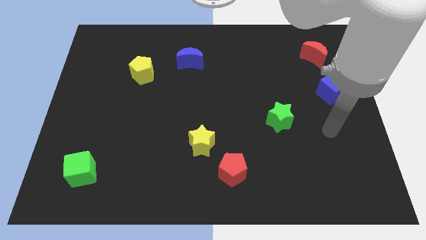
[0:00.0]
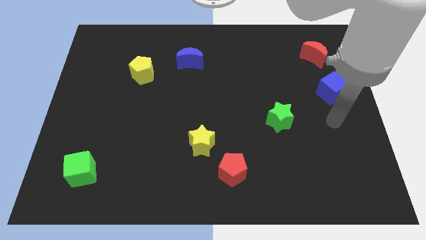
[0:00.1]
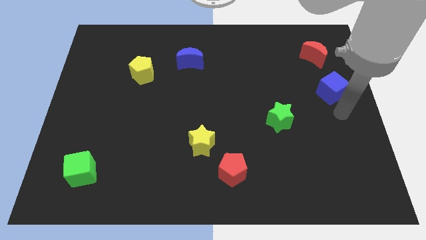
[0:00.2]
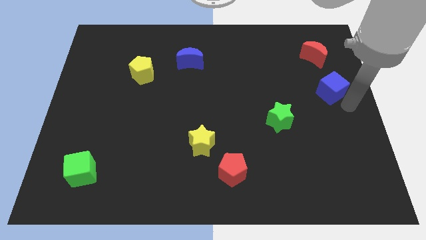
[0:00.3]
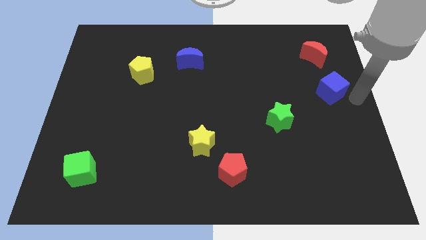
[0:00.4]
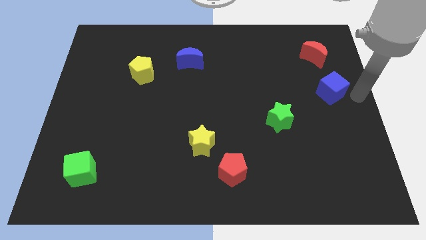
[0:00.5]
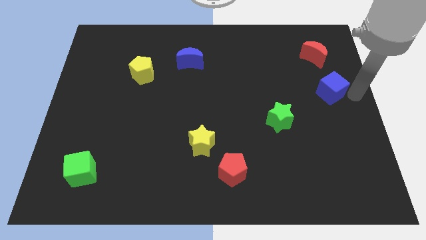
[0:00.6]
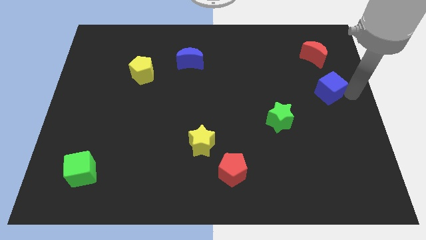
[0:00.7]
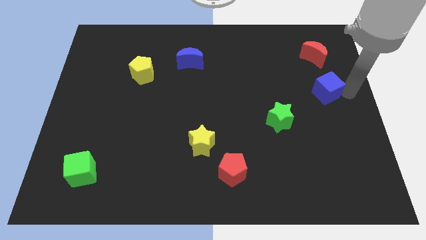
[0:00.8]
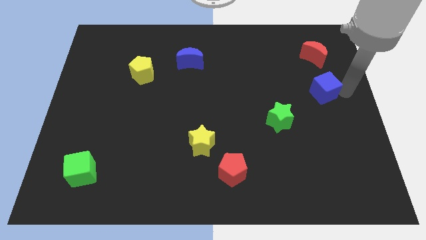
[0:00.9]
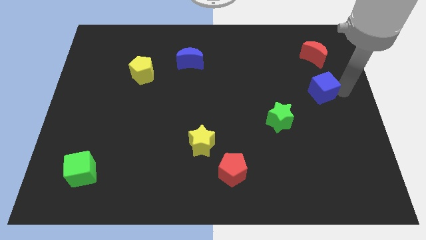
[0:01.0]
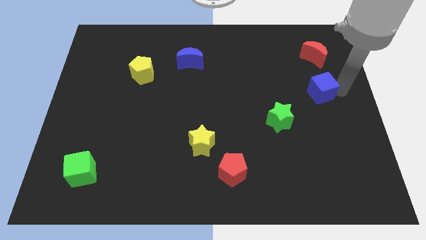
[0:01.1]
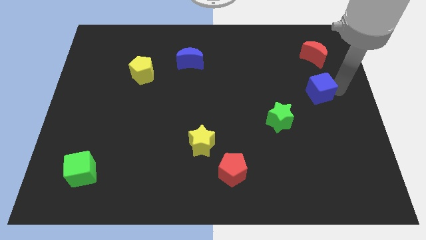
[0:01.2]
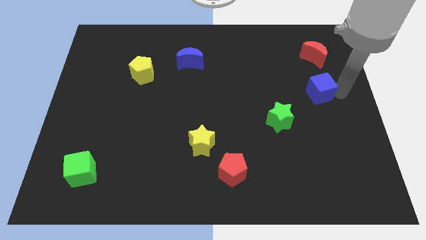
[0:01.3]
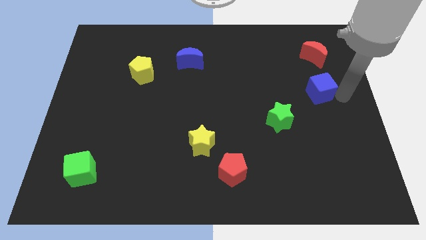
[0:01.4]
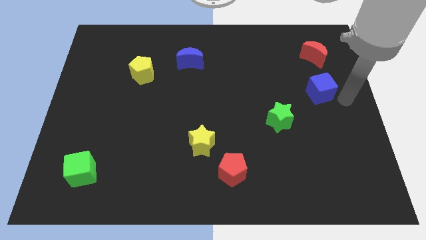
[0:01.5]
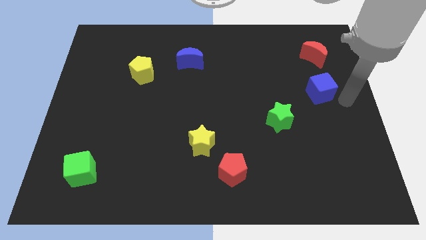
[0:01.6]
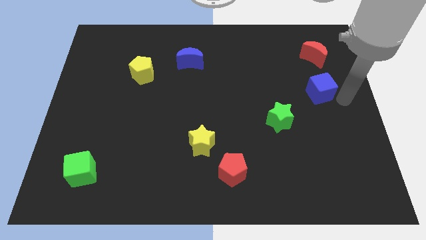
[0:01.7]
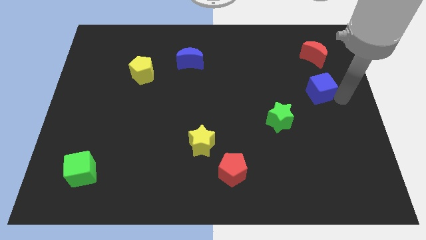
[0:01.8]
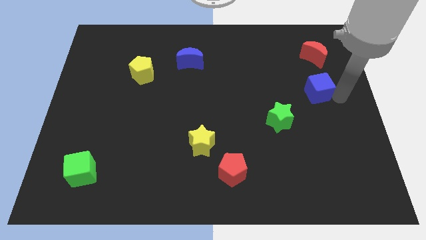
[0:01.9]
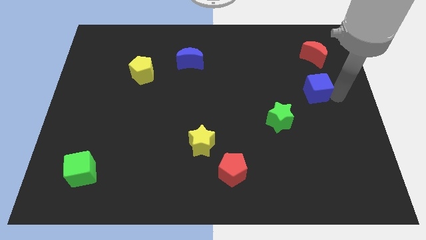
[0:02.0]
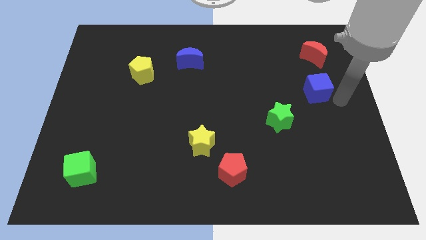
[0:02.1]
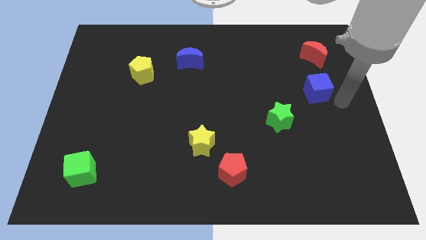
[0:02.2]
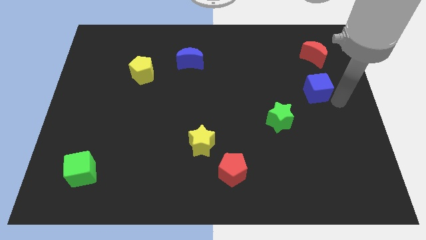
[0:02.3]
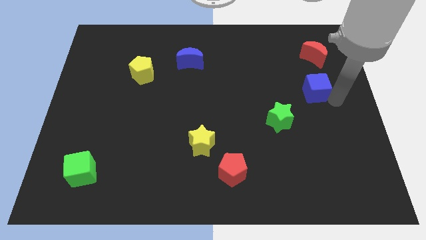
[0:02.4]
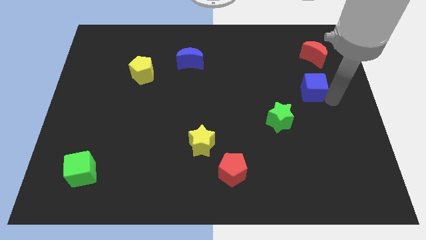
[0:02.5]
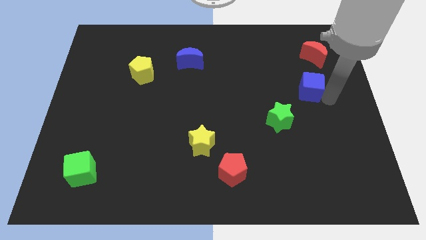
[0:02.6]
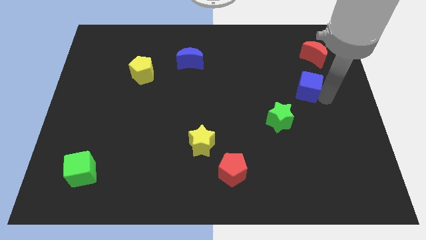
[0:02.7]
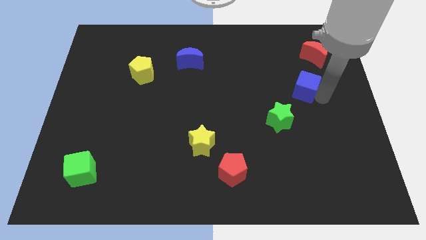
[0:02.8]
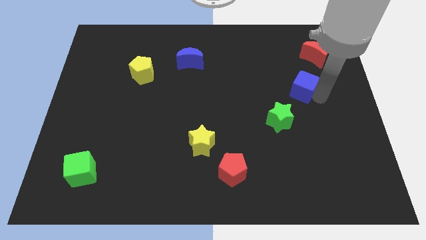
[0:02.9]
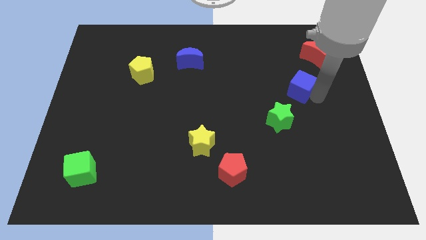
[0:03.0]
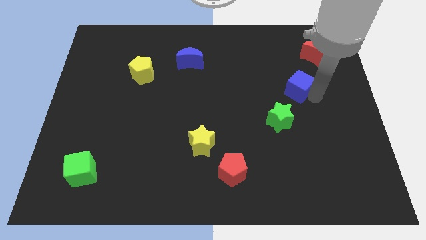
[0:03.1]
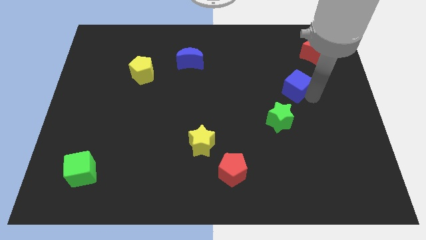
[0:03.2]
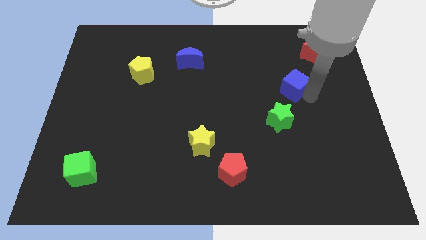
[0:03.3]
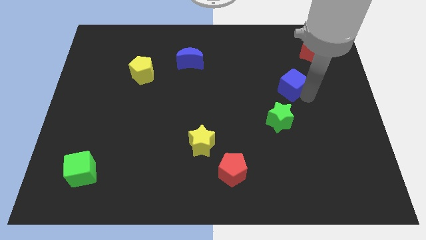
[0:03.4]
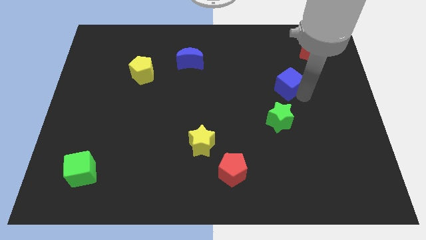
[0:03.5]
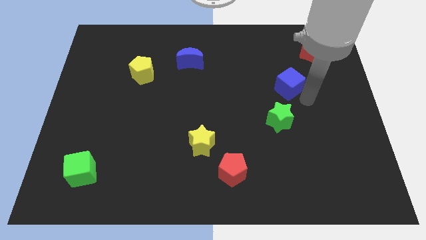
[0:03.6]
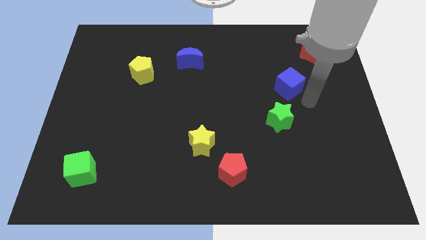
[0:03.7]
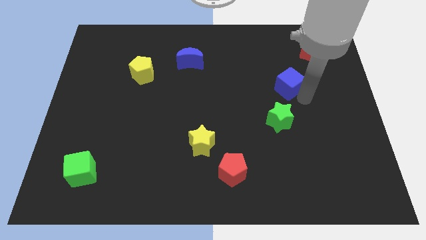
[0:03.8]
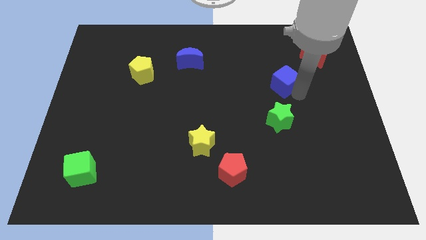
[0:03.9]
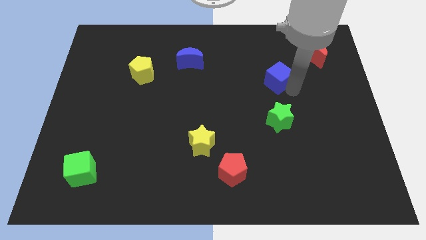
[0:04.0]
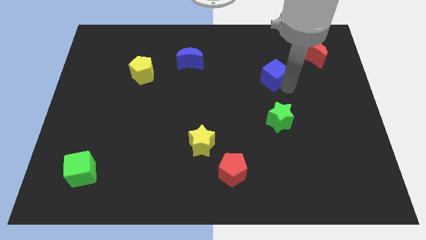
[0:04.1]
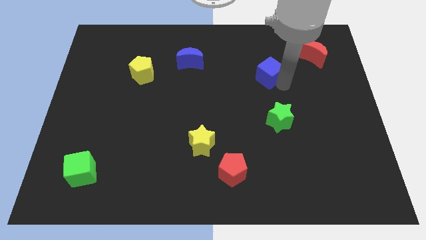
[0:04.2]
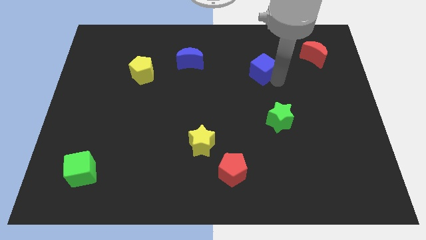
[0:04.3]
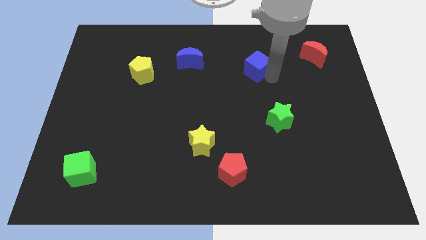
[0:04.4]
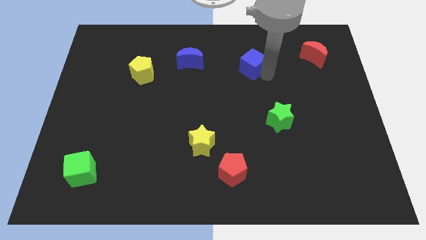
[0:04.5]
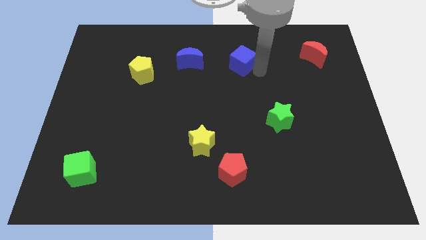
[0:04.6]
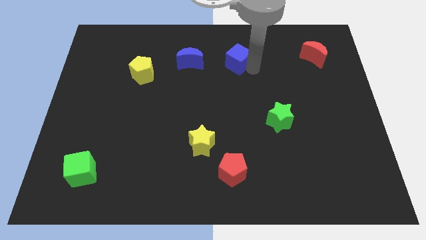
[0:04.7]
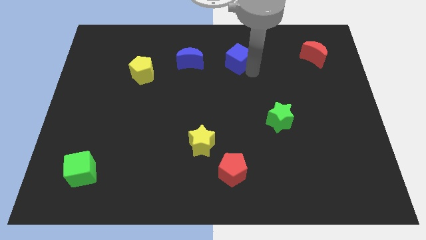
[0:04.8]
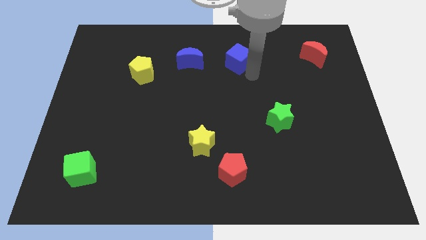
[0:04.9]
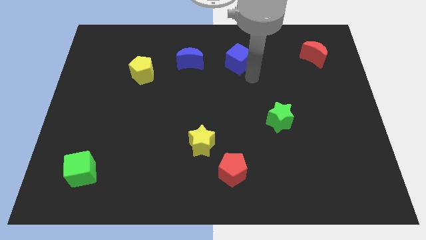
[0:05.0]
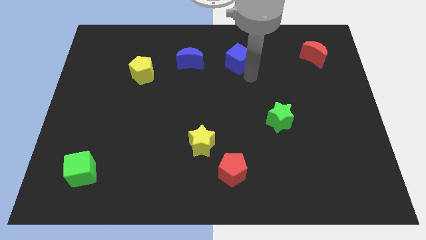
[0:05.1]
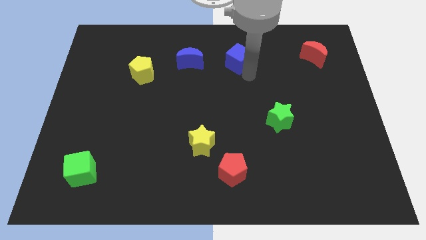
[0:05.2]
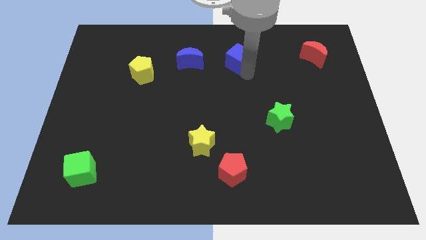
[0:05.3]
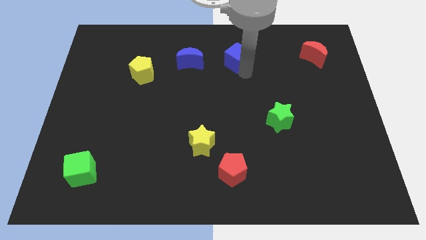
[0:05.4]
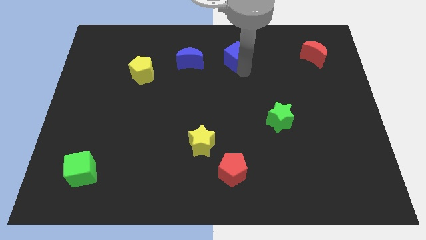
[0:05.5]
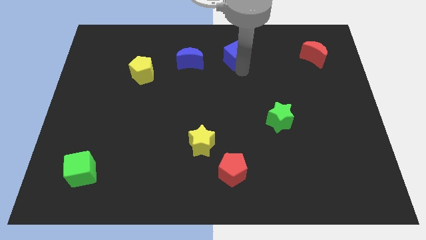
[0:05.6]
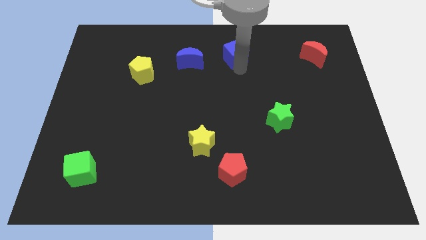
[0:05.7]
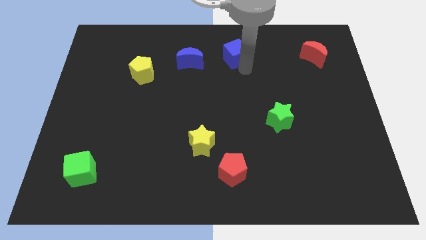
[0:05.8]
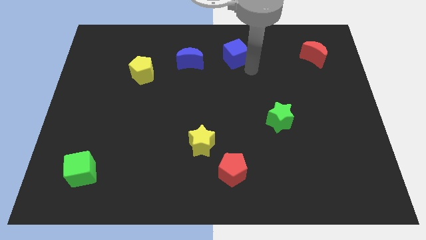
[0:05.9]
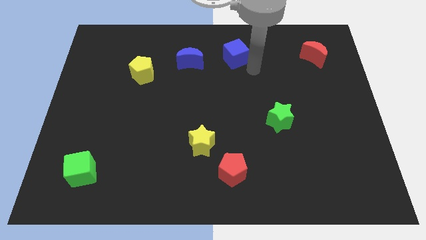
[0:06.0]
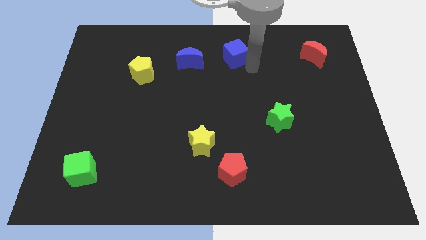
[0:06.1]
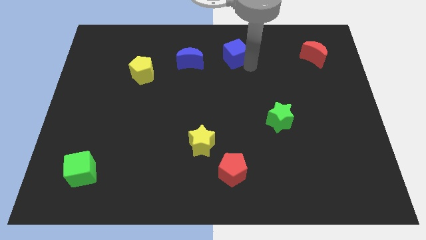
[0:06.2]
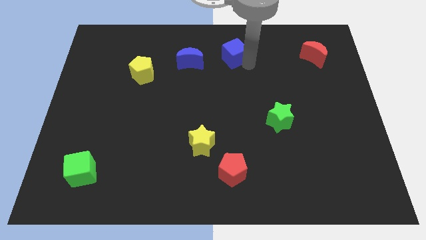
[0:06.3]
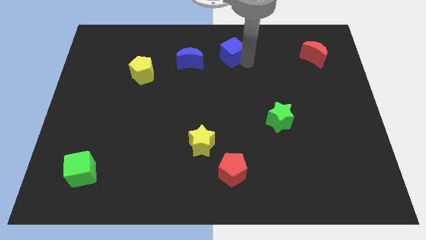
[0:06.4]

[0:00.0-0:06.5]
slide the blue cube to the top side

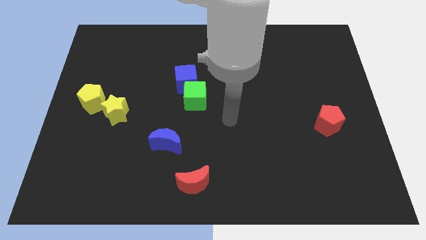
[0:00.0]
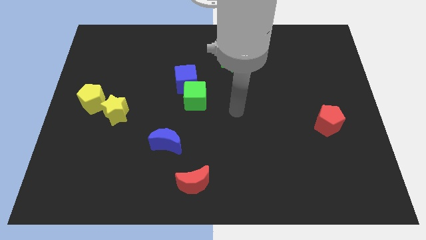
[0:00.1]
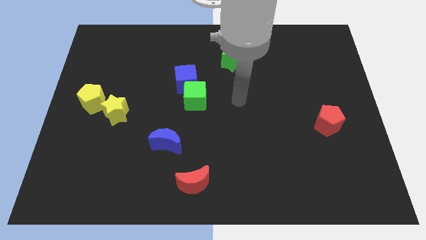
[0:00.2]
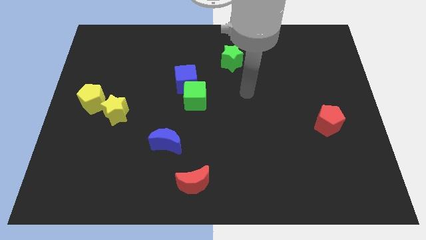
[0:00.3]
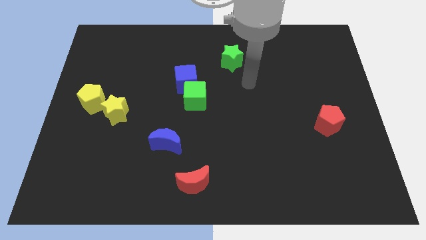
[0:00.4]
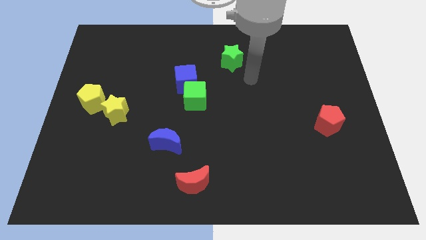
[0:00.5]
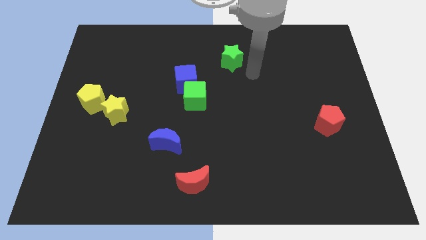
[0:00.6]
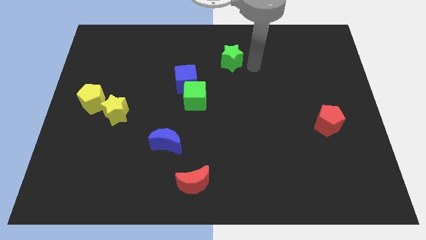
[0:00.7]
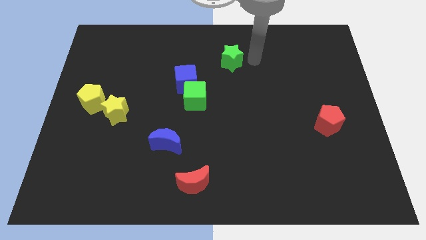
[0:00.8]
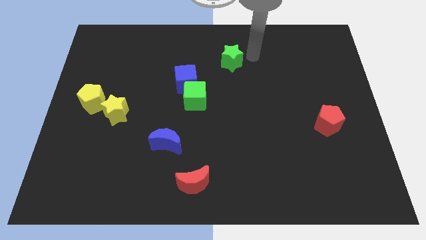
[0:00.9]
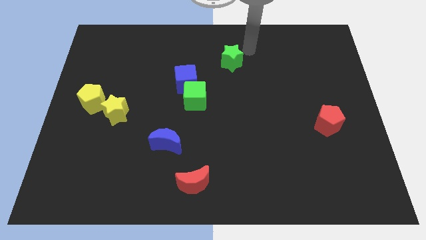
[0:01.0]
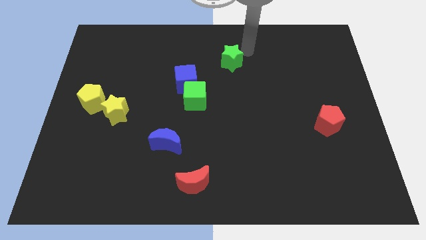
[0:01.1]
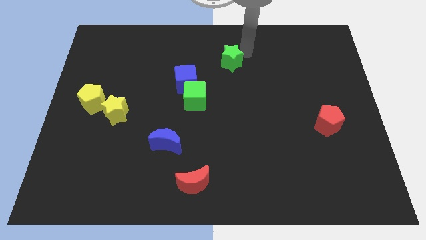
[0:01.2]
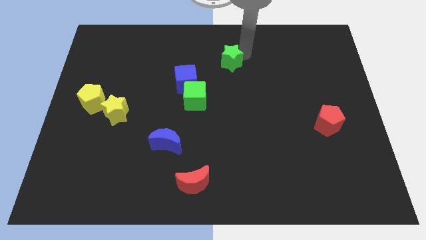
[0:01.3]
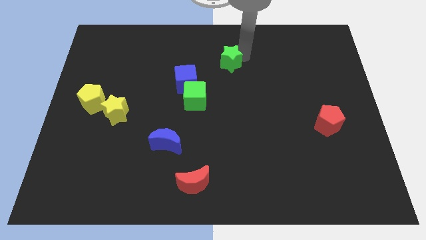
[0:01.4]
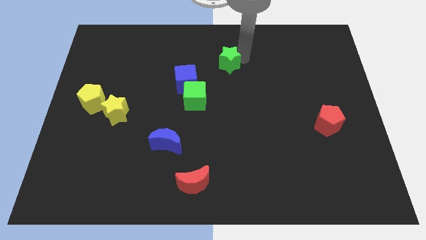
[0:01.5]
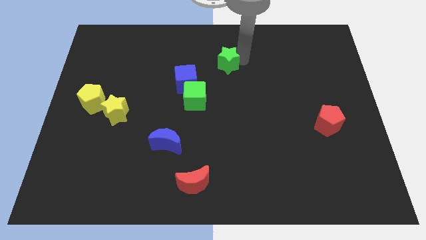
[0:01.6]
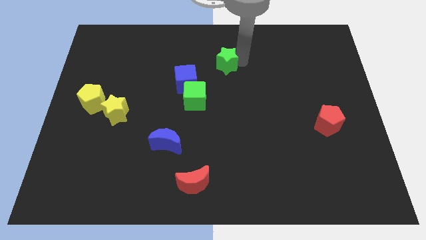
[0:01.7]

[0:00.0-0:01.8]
push the green star to the middle of the board
